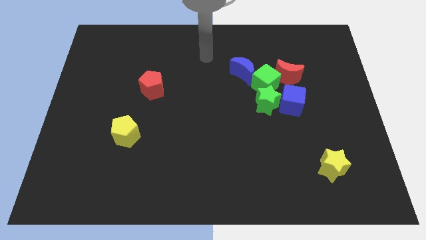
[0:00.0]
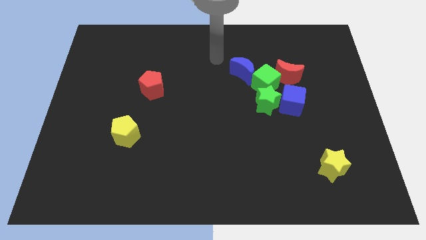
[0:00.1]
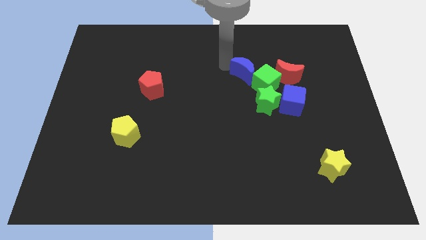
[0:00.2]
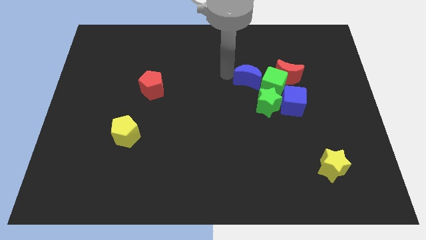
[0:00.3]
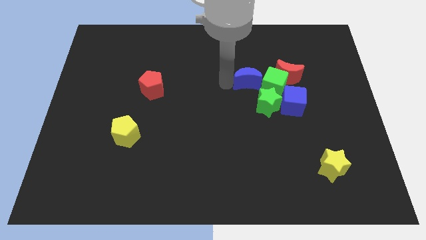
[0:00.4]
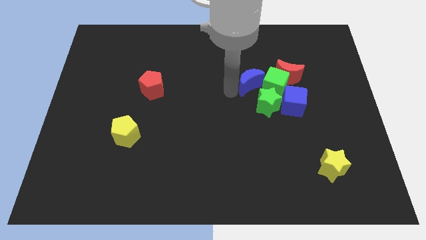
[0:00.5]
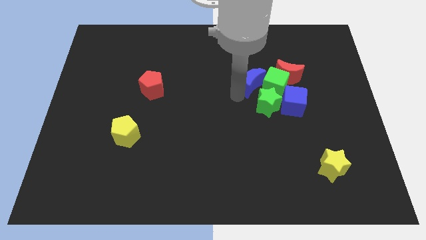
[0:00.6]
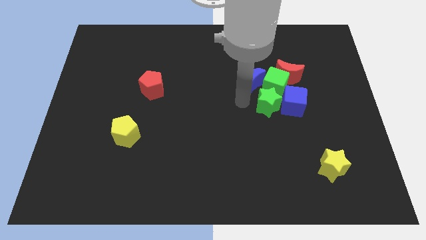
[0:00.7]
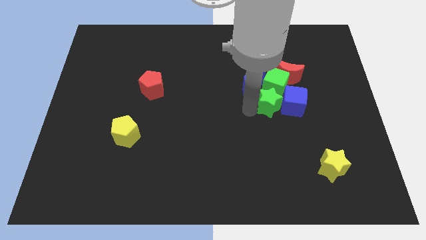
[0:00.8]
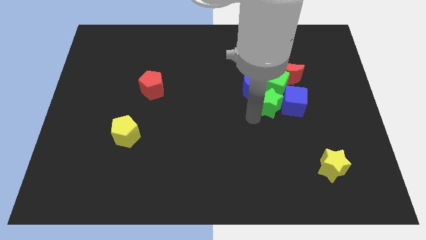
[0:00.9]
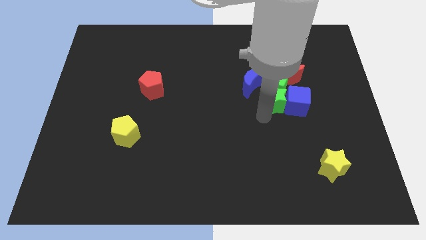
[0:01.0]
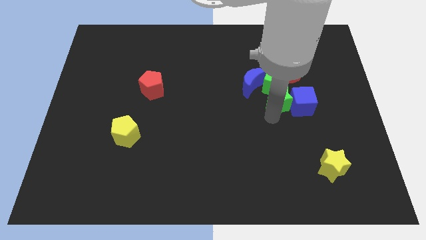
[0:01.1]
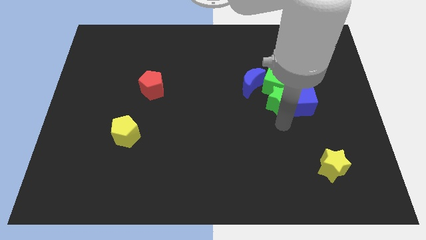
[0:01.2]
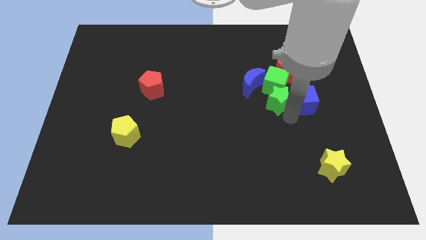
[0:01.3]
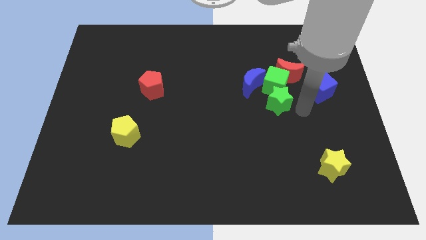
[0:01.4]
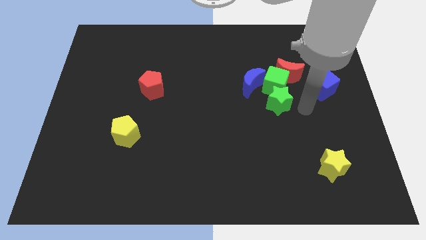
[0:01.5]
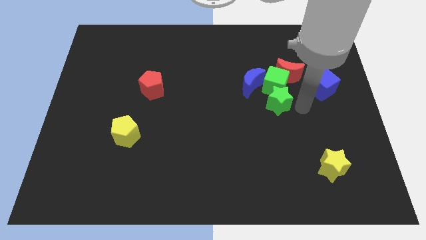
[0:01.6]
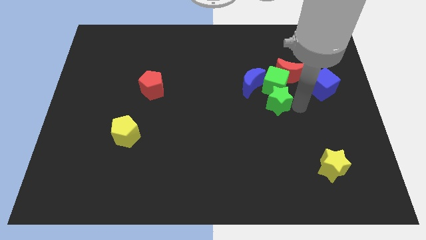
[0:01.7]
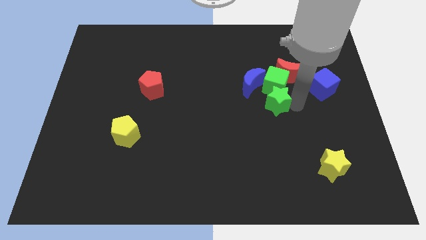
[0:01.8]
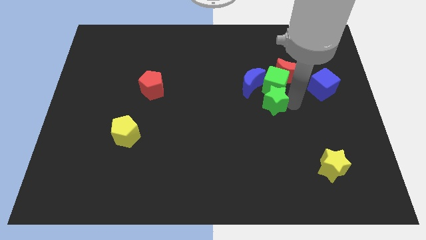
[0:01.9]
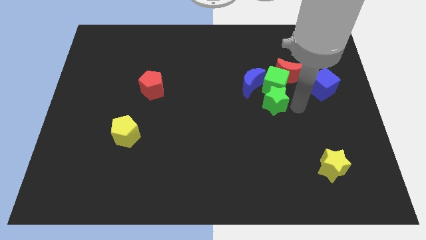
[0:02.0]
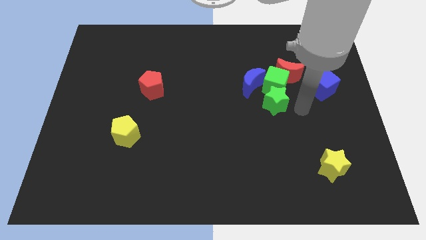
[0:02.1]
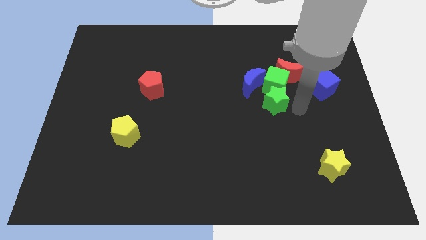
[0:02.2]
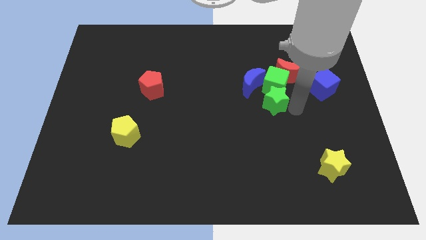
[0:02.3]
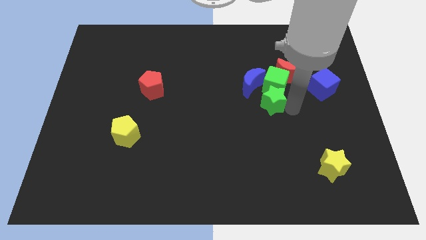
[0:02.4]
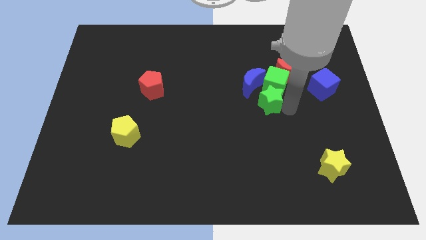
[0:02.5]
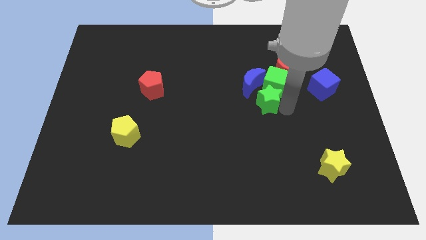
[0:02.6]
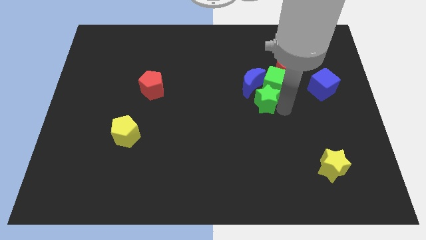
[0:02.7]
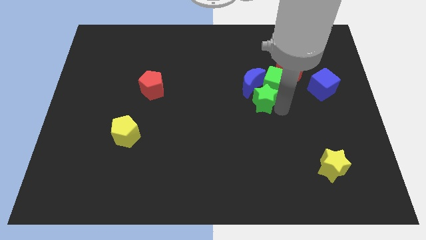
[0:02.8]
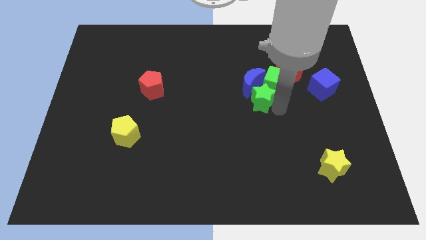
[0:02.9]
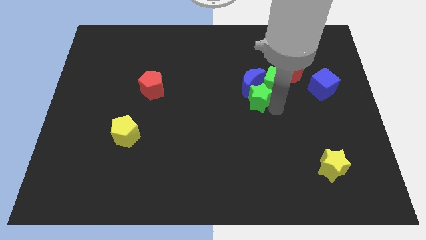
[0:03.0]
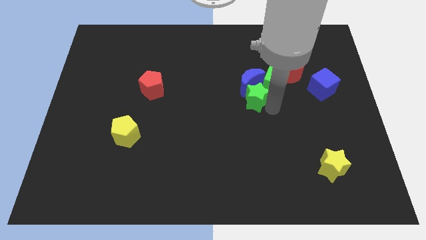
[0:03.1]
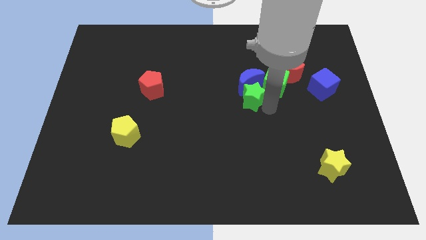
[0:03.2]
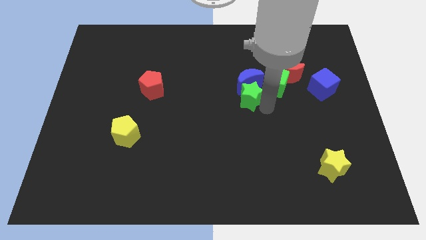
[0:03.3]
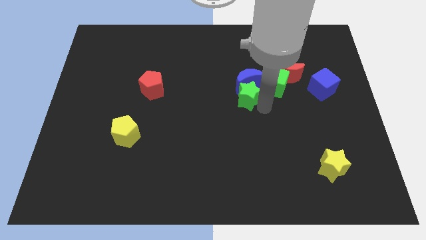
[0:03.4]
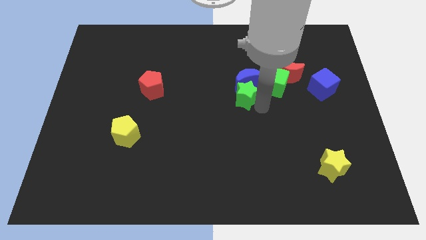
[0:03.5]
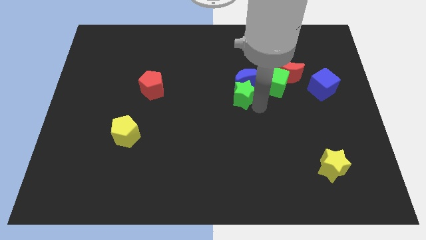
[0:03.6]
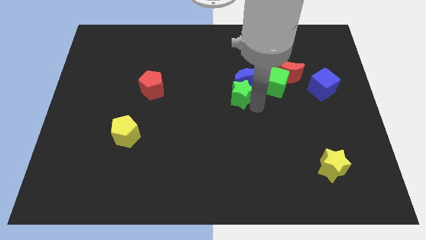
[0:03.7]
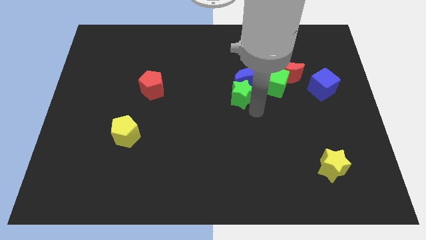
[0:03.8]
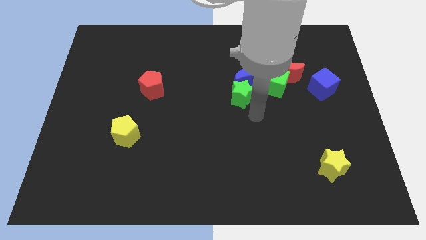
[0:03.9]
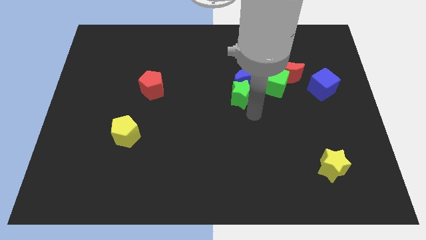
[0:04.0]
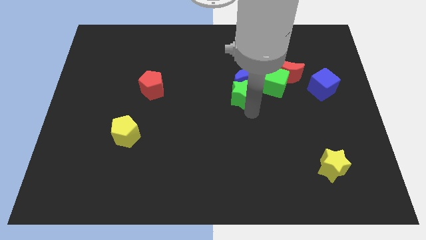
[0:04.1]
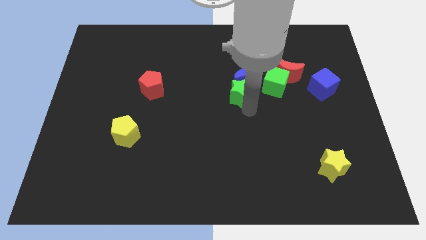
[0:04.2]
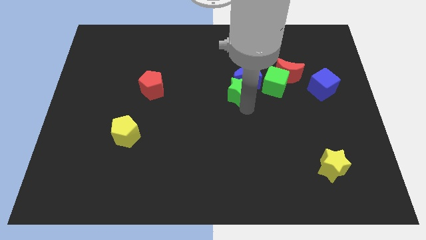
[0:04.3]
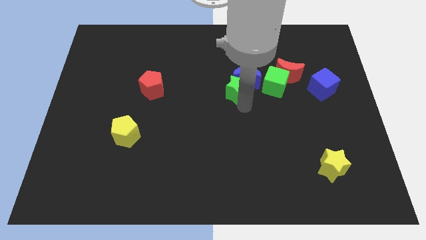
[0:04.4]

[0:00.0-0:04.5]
slide the green star upwards and then to the left slightly

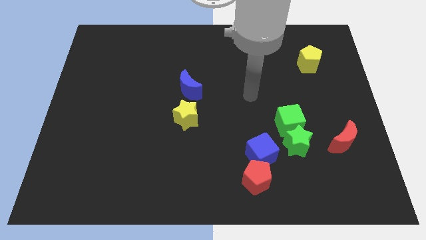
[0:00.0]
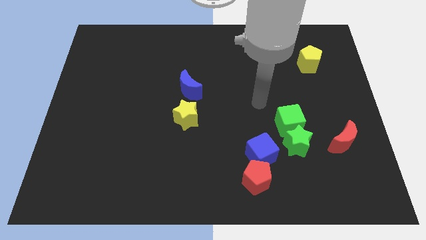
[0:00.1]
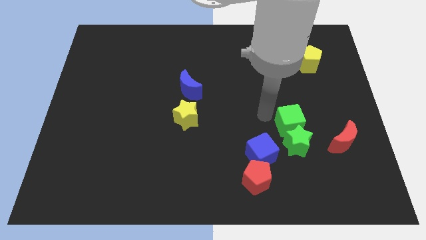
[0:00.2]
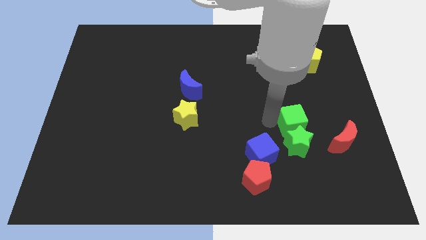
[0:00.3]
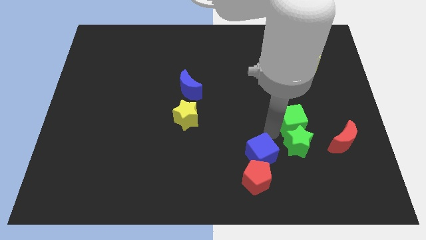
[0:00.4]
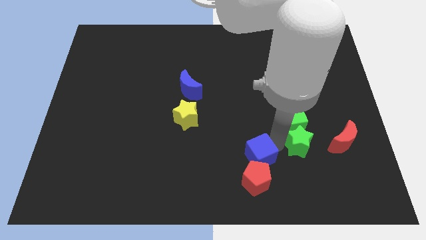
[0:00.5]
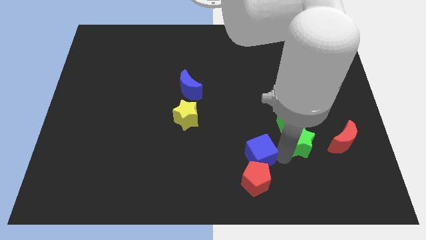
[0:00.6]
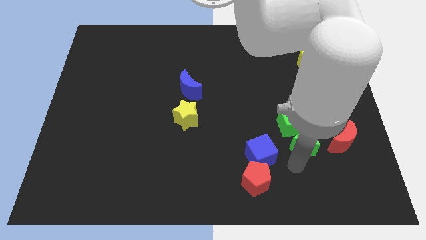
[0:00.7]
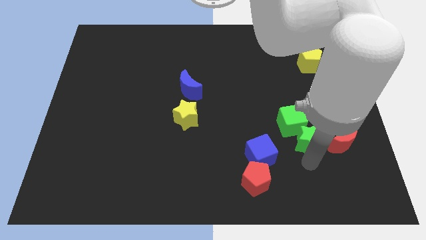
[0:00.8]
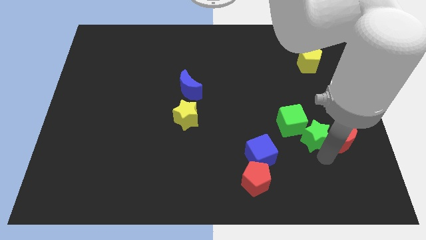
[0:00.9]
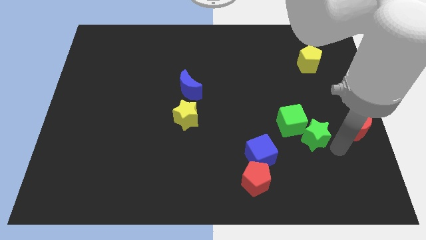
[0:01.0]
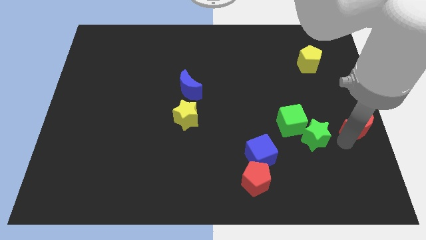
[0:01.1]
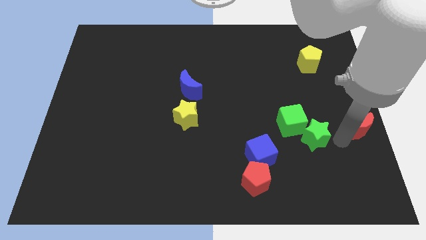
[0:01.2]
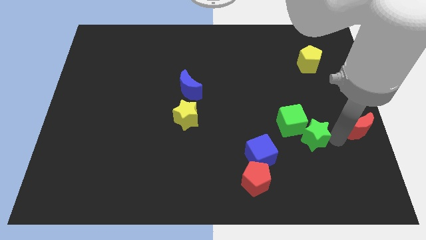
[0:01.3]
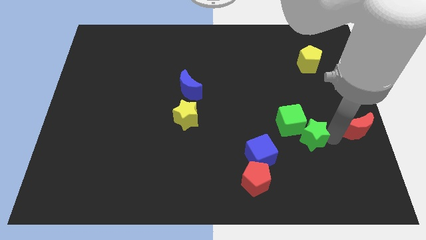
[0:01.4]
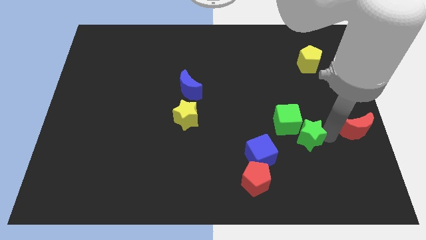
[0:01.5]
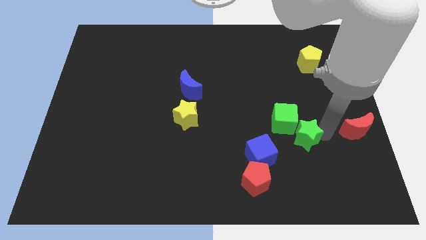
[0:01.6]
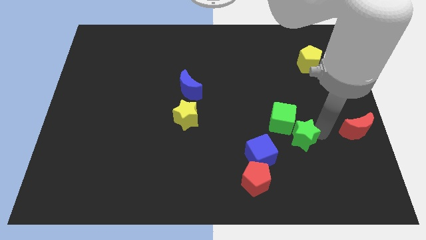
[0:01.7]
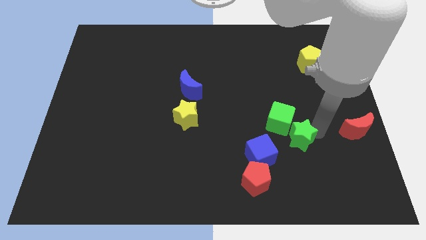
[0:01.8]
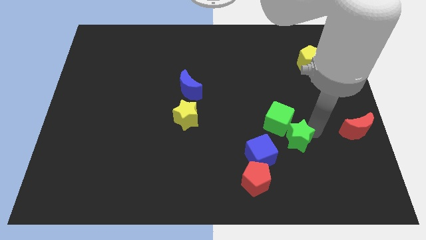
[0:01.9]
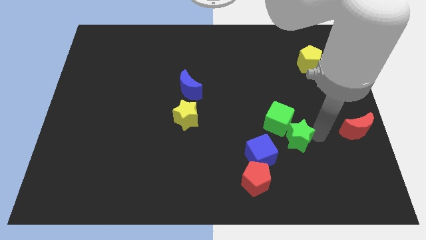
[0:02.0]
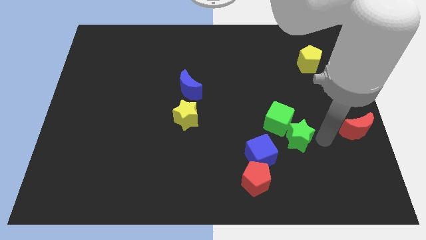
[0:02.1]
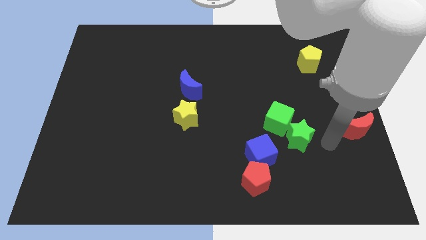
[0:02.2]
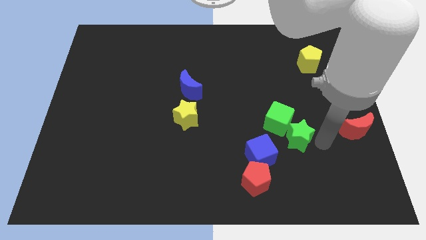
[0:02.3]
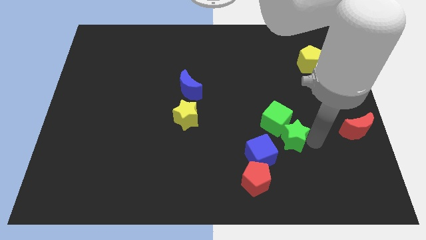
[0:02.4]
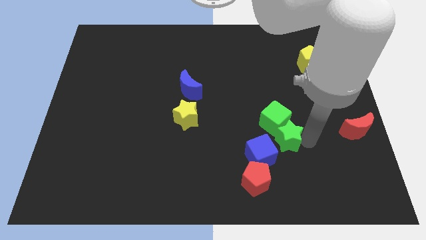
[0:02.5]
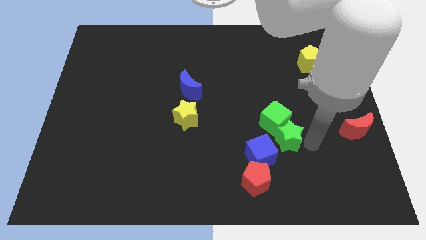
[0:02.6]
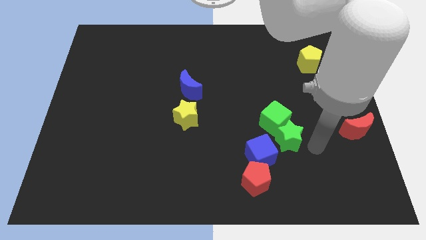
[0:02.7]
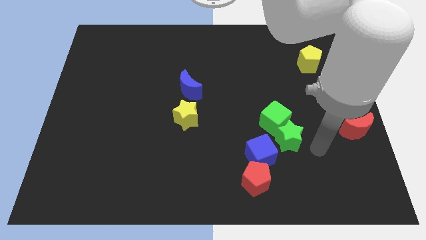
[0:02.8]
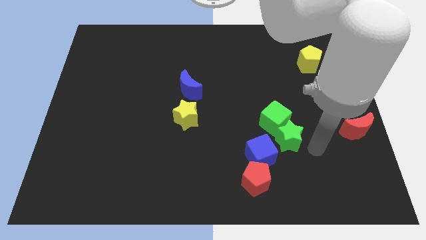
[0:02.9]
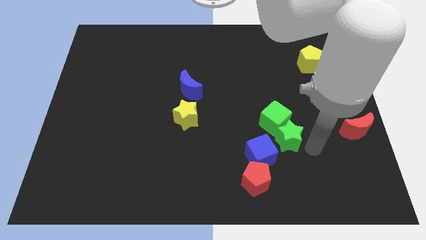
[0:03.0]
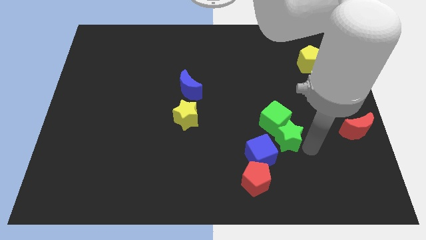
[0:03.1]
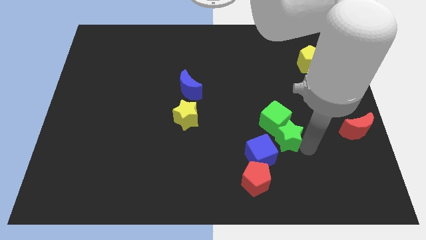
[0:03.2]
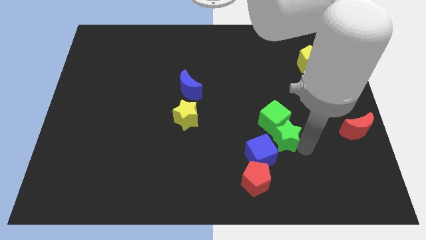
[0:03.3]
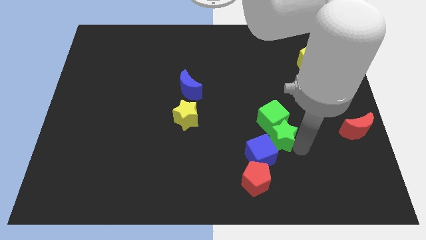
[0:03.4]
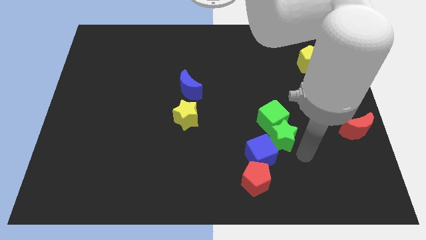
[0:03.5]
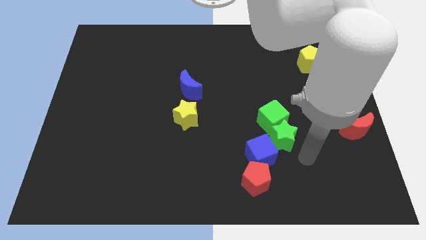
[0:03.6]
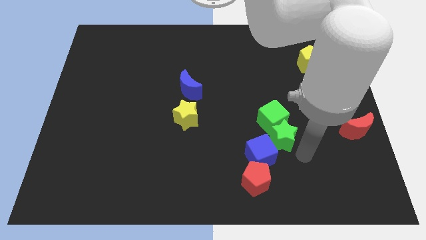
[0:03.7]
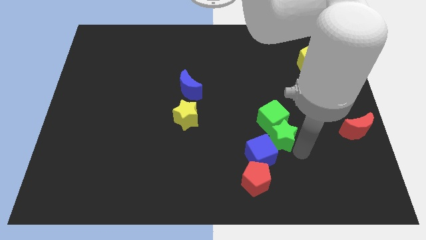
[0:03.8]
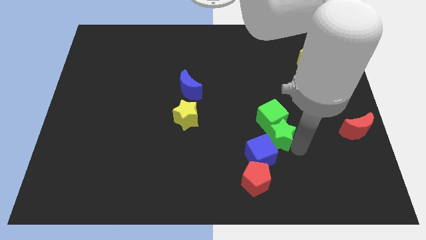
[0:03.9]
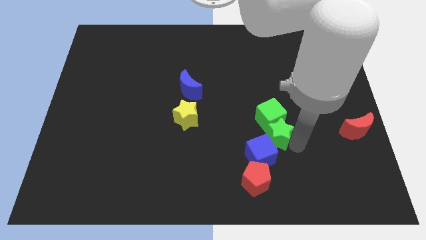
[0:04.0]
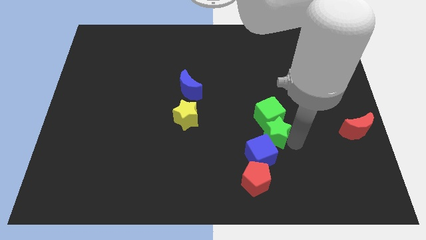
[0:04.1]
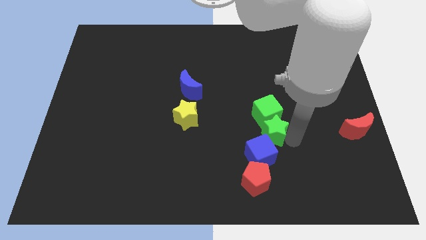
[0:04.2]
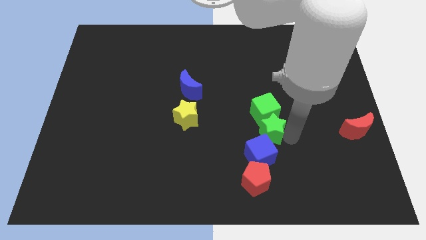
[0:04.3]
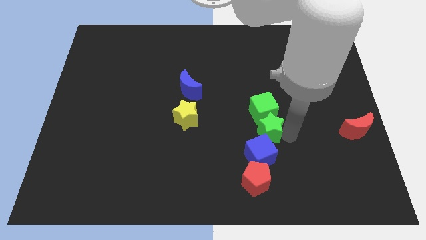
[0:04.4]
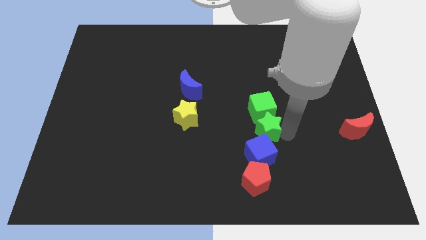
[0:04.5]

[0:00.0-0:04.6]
slide the green star up and to the left a little
